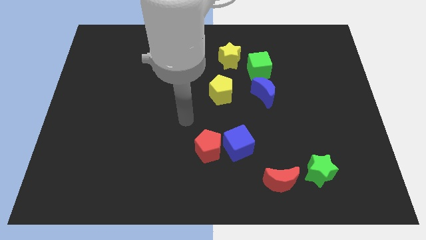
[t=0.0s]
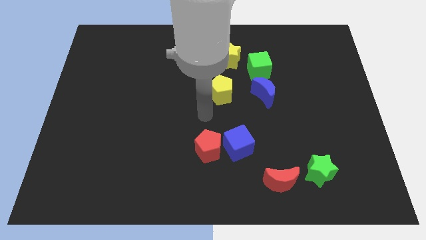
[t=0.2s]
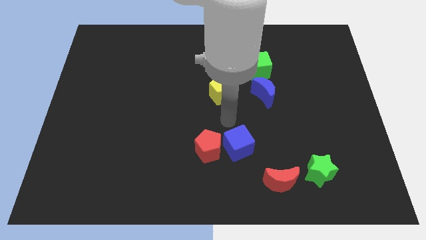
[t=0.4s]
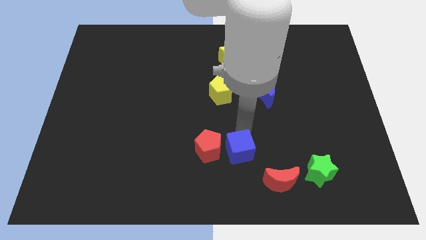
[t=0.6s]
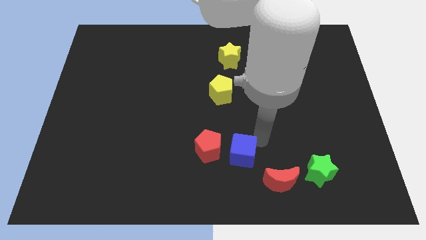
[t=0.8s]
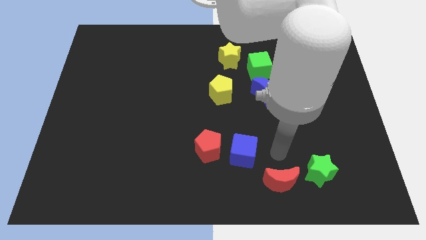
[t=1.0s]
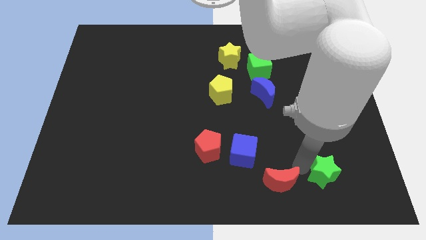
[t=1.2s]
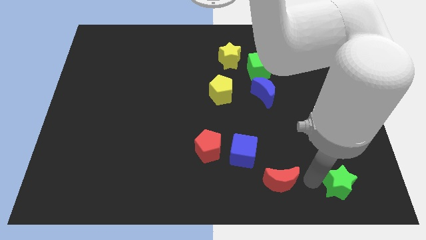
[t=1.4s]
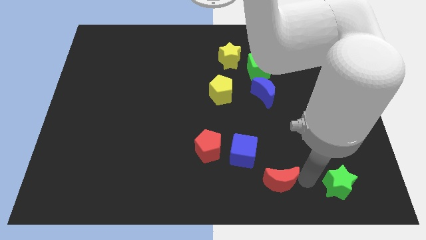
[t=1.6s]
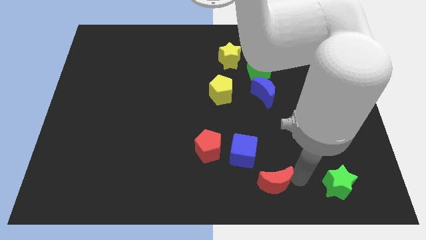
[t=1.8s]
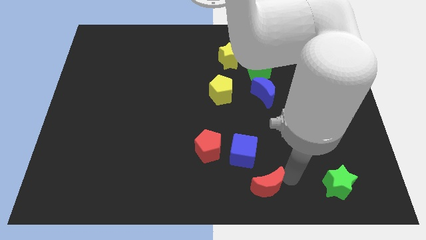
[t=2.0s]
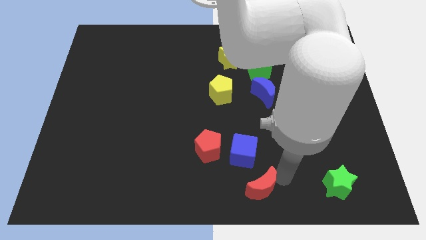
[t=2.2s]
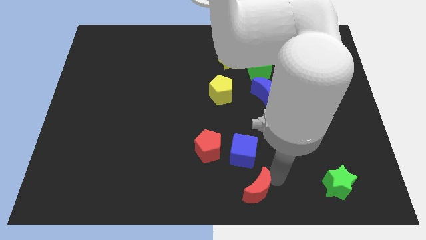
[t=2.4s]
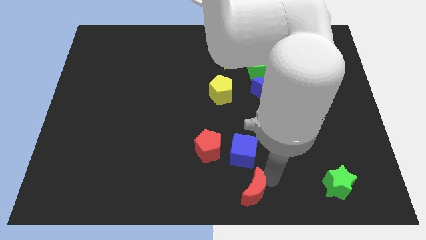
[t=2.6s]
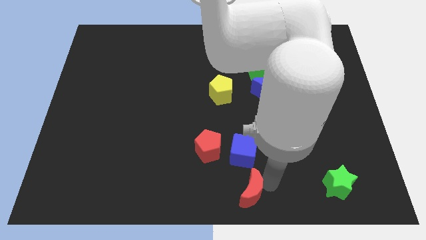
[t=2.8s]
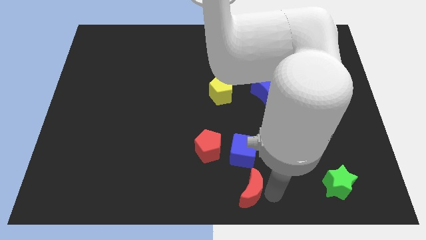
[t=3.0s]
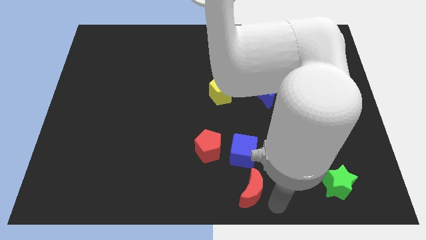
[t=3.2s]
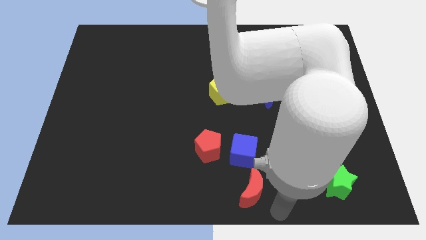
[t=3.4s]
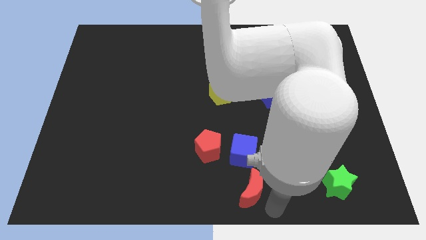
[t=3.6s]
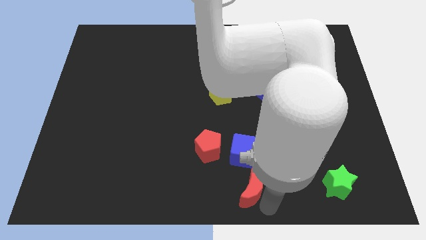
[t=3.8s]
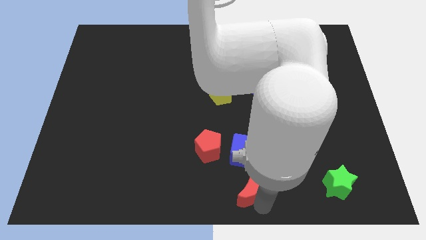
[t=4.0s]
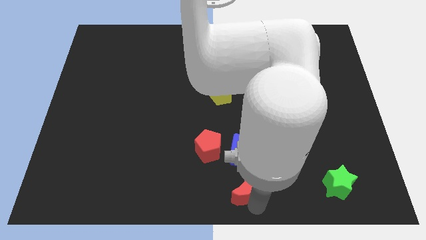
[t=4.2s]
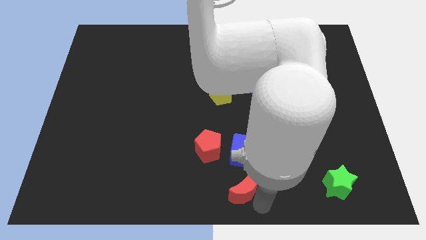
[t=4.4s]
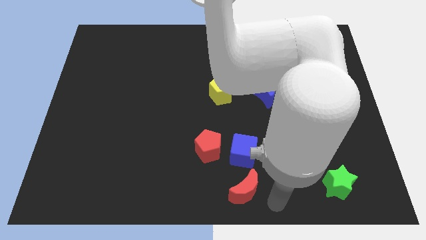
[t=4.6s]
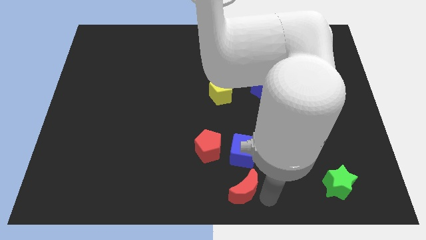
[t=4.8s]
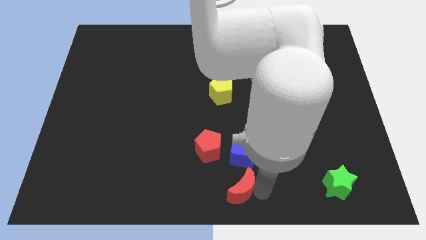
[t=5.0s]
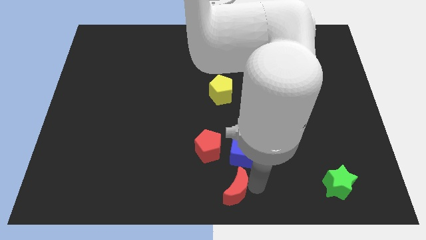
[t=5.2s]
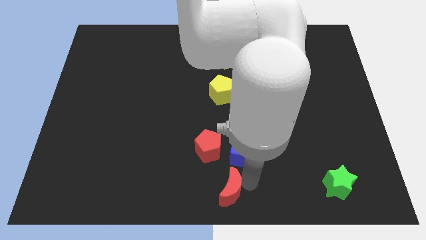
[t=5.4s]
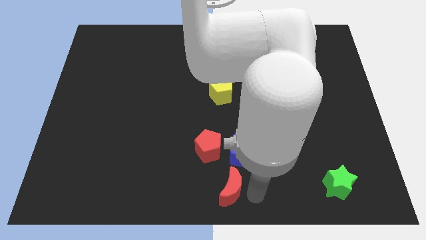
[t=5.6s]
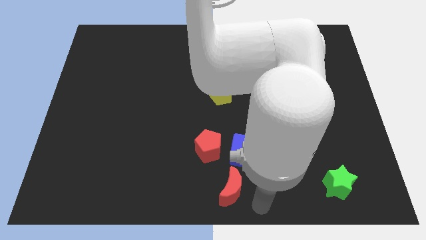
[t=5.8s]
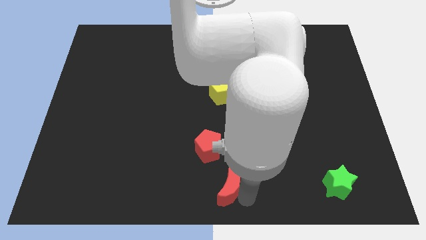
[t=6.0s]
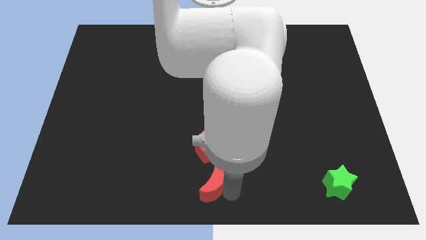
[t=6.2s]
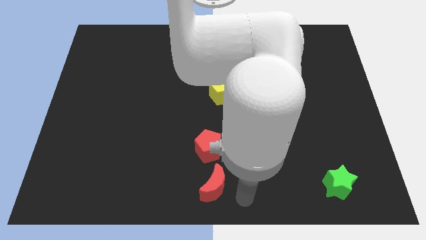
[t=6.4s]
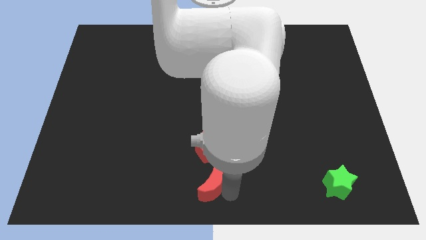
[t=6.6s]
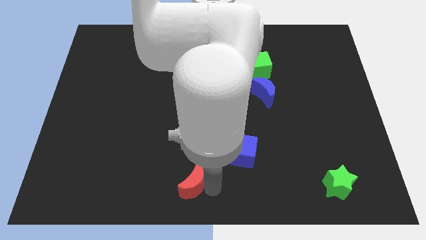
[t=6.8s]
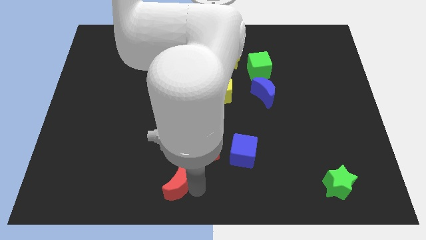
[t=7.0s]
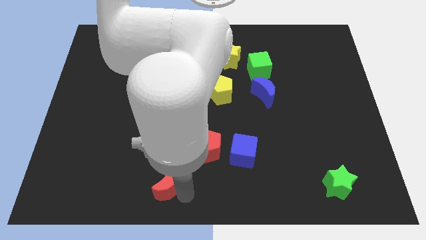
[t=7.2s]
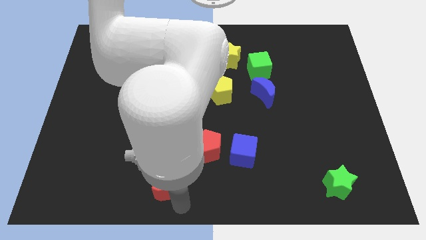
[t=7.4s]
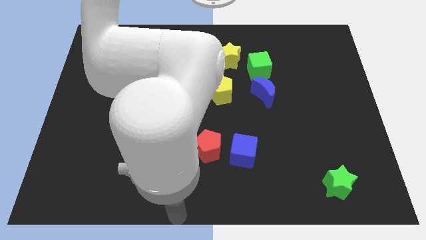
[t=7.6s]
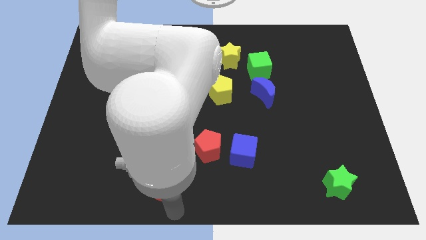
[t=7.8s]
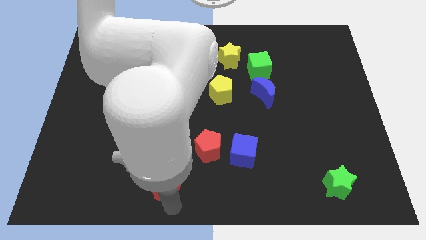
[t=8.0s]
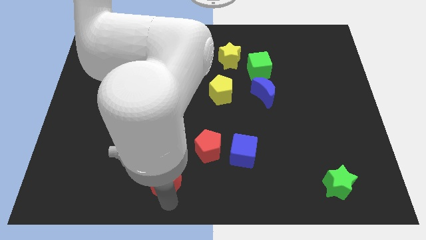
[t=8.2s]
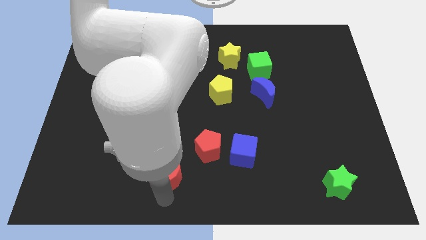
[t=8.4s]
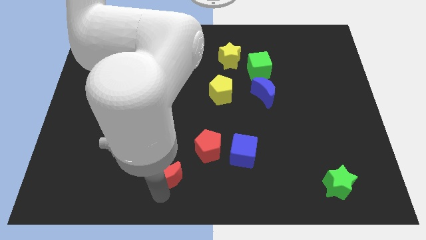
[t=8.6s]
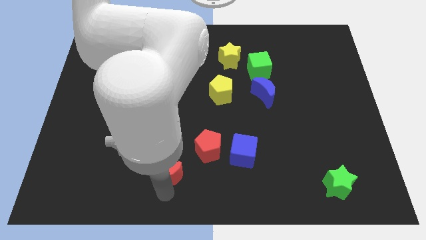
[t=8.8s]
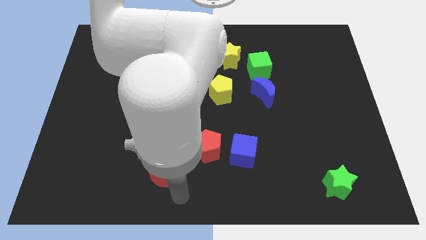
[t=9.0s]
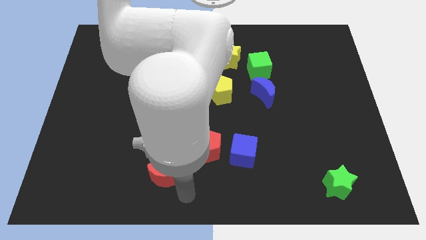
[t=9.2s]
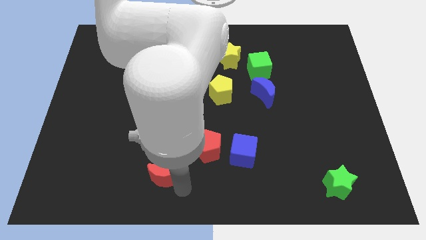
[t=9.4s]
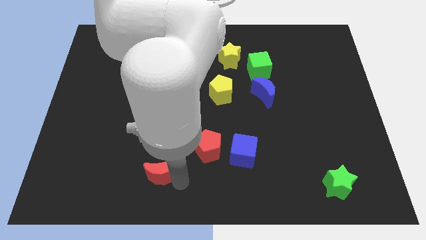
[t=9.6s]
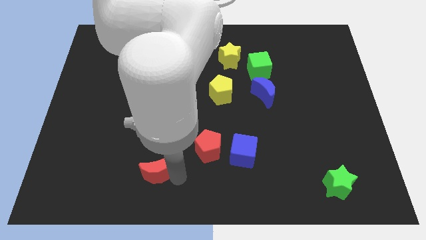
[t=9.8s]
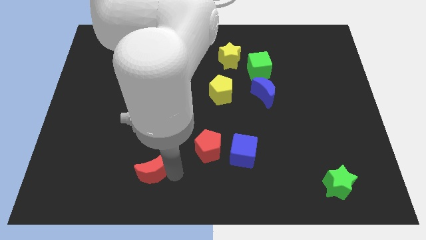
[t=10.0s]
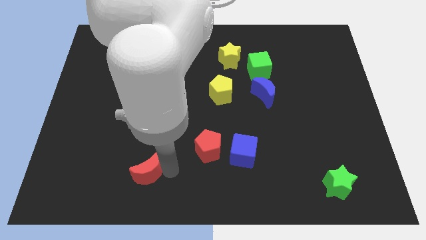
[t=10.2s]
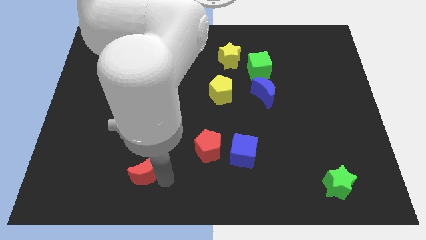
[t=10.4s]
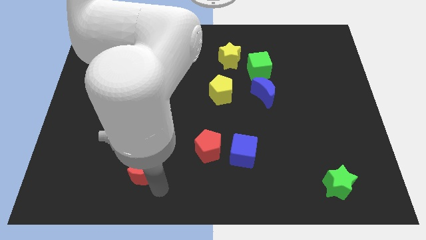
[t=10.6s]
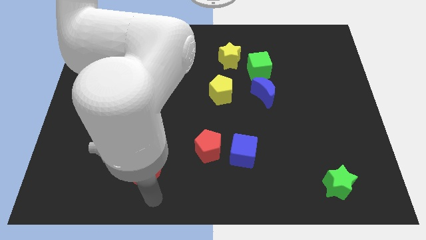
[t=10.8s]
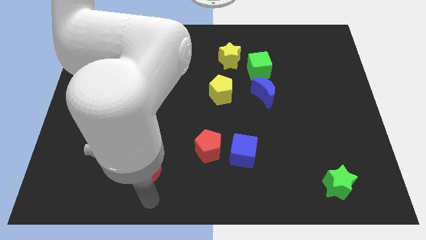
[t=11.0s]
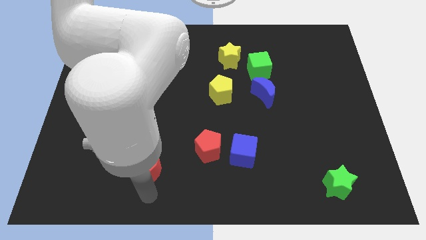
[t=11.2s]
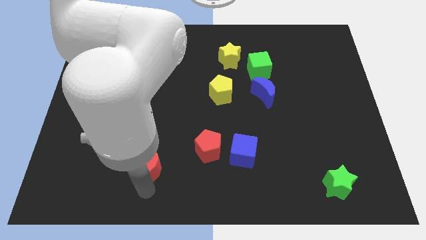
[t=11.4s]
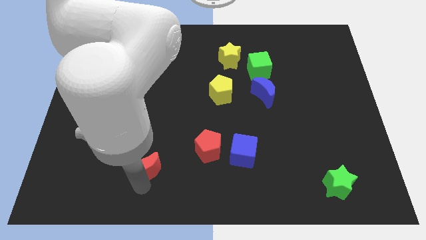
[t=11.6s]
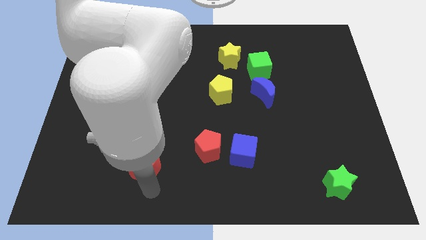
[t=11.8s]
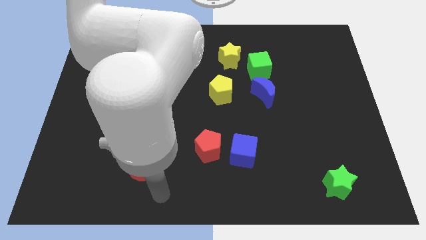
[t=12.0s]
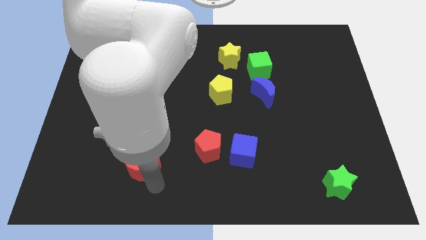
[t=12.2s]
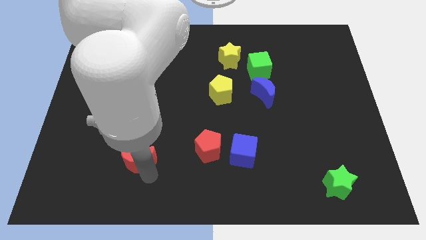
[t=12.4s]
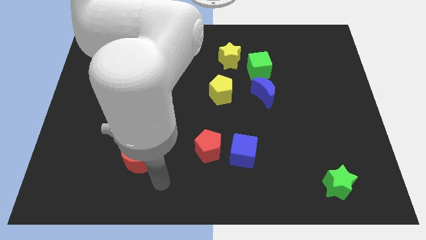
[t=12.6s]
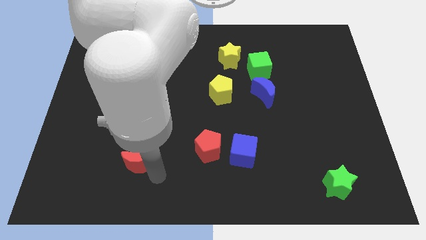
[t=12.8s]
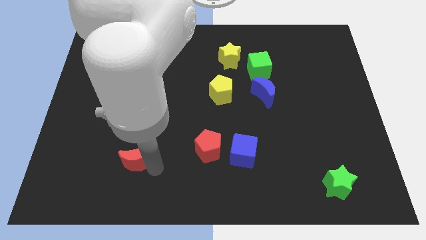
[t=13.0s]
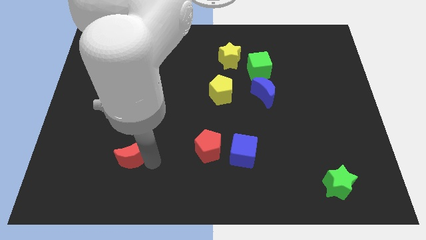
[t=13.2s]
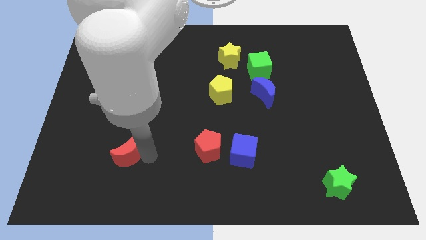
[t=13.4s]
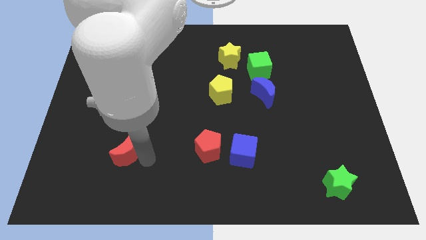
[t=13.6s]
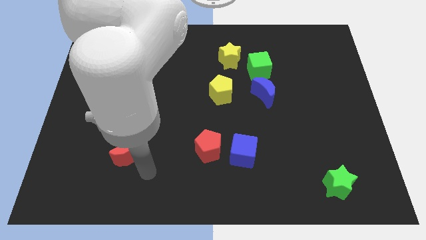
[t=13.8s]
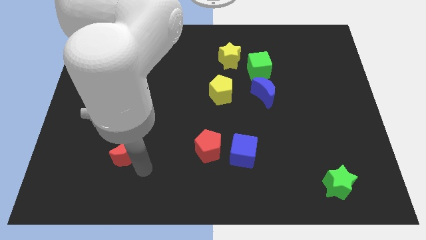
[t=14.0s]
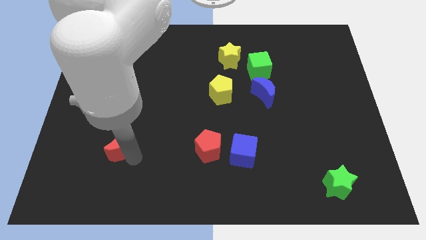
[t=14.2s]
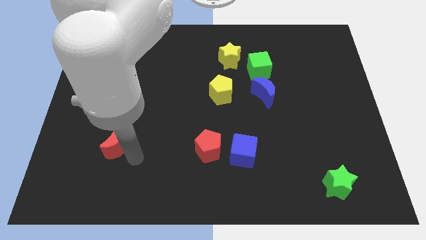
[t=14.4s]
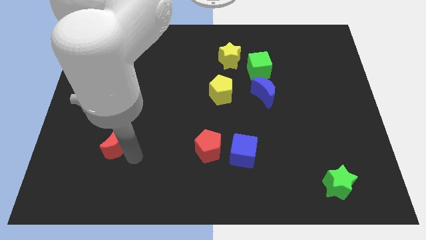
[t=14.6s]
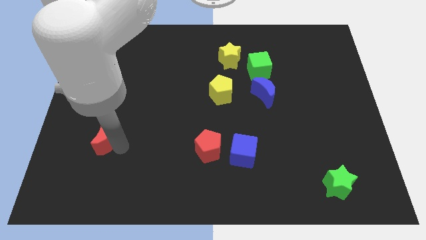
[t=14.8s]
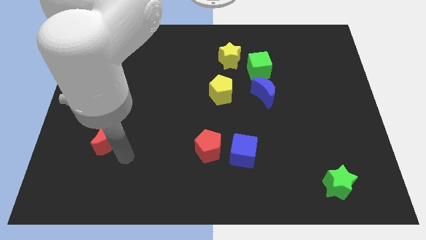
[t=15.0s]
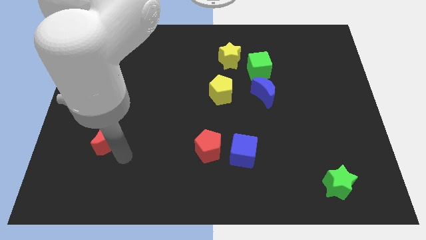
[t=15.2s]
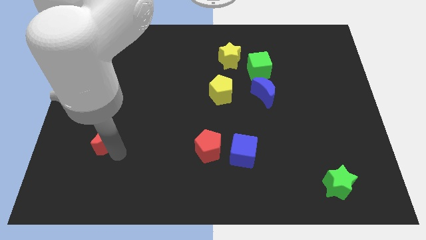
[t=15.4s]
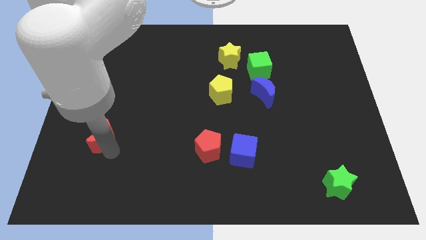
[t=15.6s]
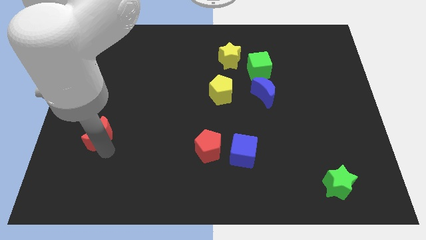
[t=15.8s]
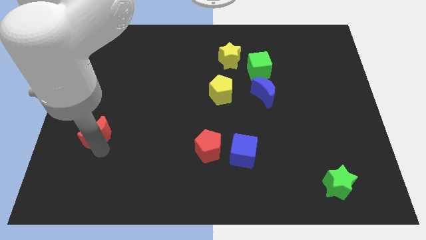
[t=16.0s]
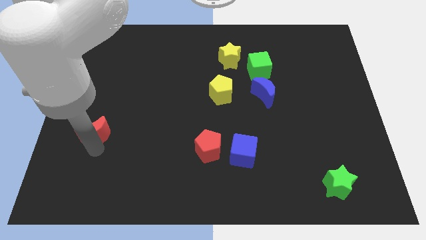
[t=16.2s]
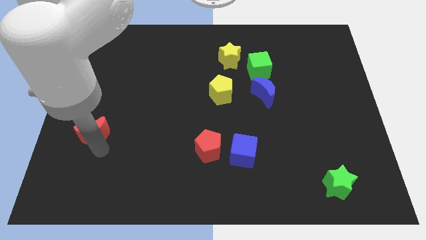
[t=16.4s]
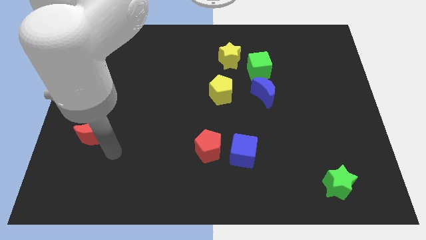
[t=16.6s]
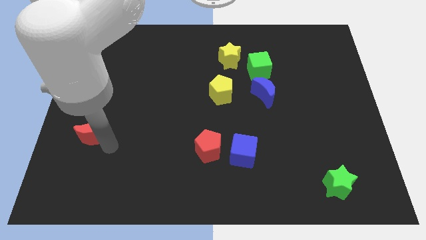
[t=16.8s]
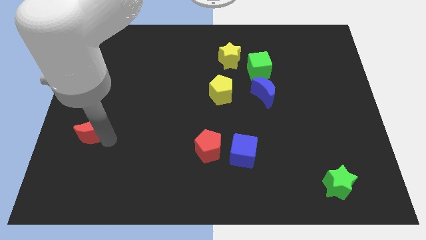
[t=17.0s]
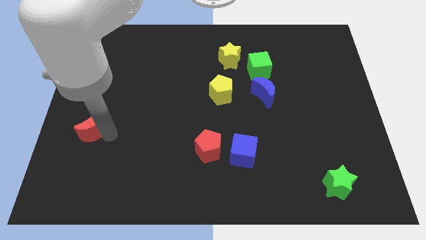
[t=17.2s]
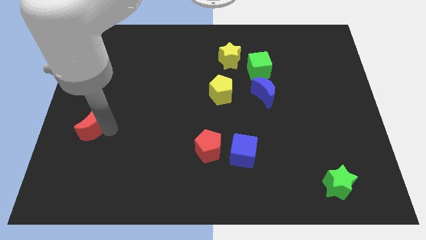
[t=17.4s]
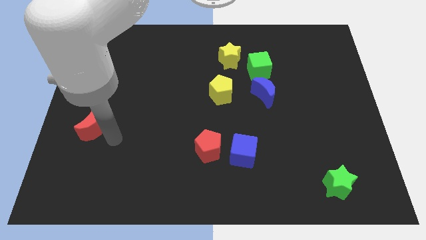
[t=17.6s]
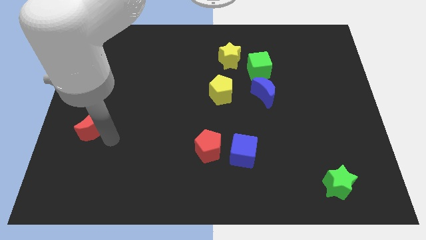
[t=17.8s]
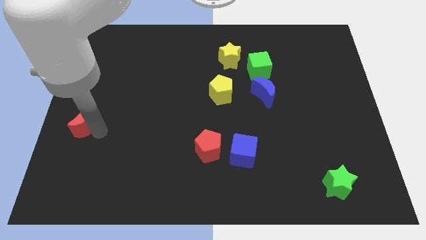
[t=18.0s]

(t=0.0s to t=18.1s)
put the red moon to the left side of the board
